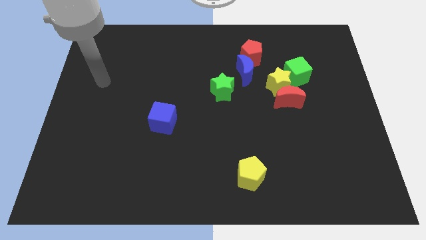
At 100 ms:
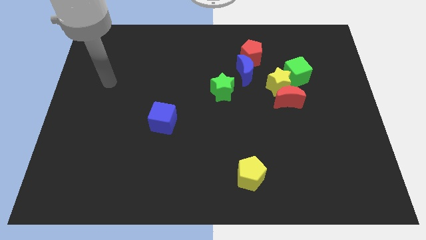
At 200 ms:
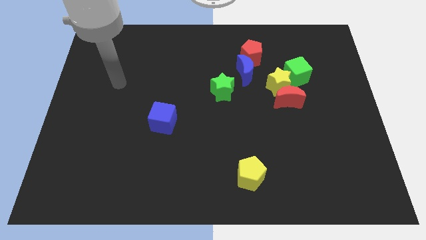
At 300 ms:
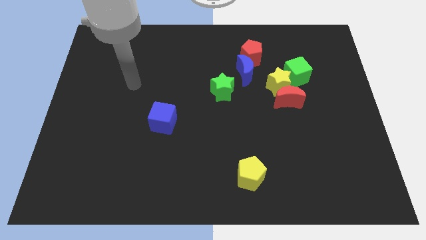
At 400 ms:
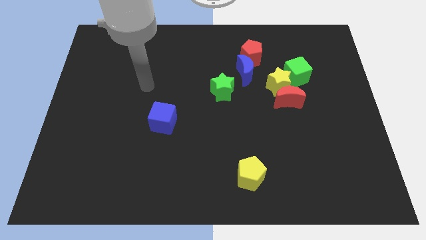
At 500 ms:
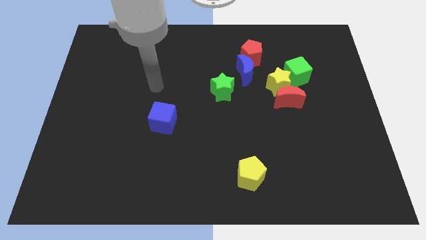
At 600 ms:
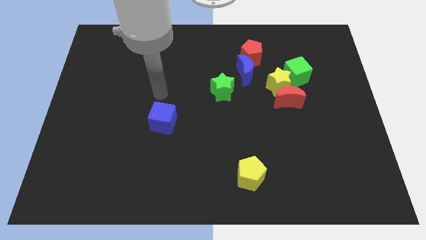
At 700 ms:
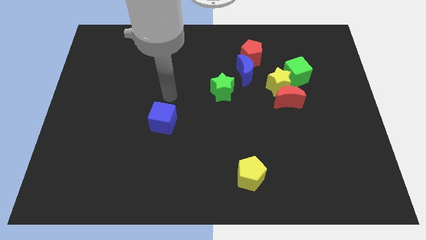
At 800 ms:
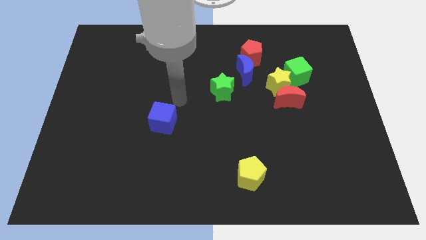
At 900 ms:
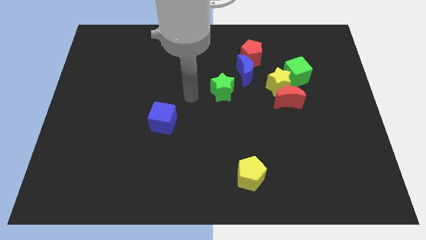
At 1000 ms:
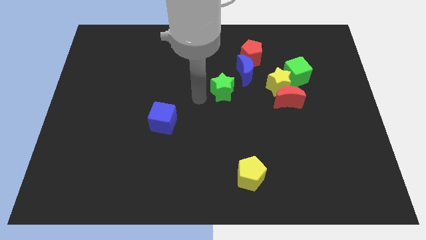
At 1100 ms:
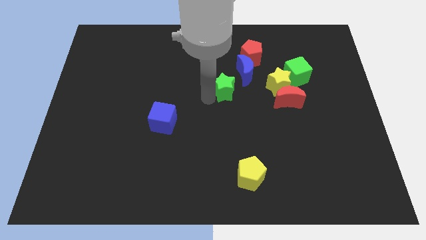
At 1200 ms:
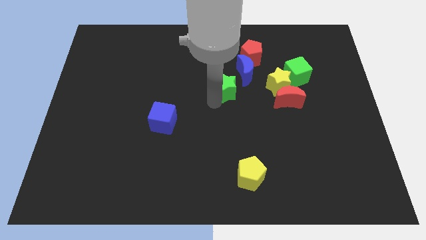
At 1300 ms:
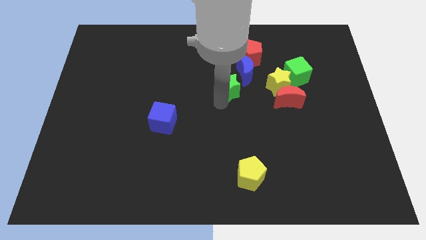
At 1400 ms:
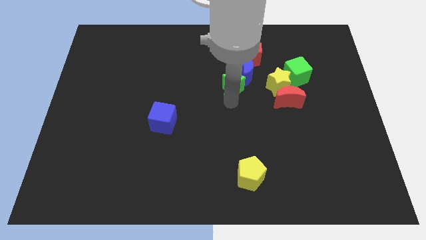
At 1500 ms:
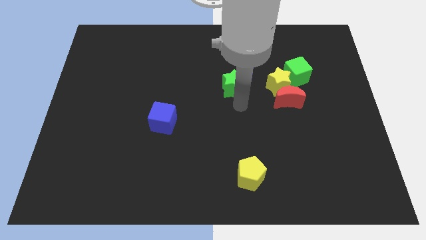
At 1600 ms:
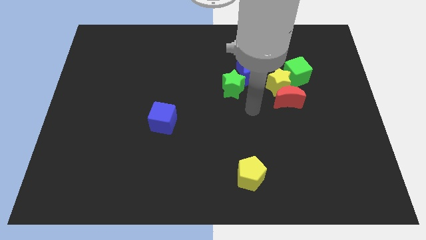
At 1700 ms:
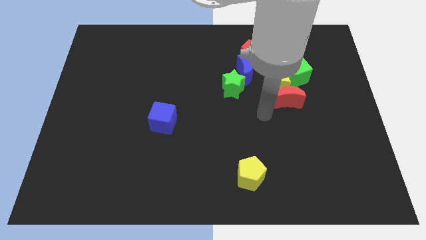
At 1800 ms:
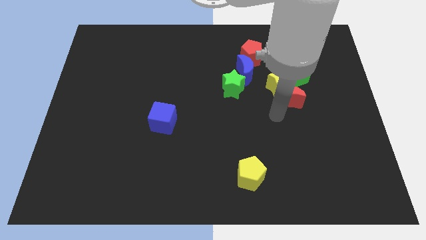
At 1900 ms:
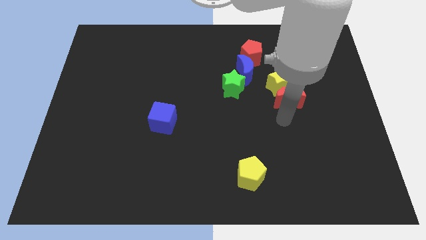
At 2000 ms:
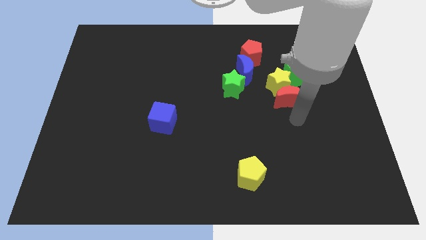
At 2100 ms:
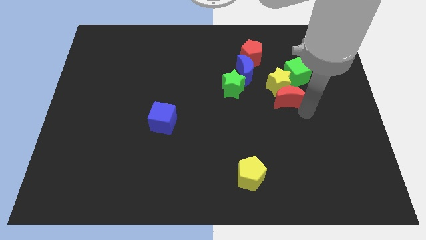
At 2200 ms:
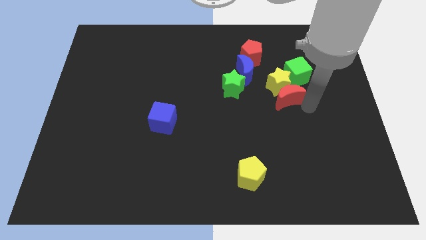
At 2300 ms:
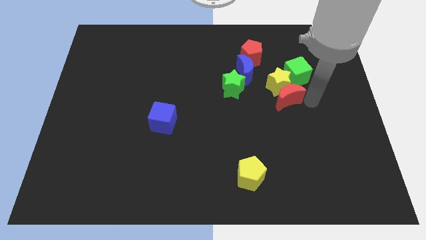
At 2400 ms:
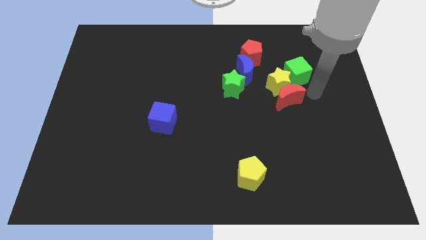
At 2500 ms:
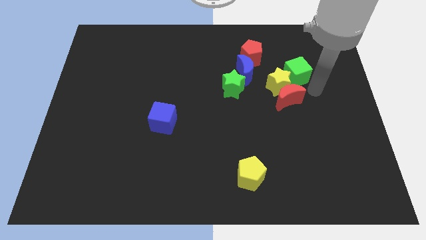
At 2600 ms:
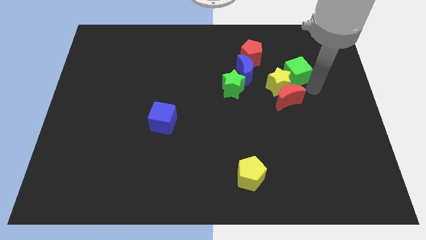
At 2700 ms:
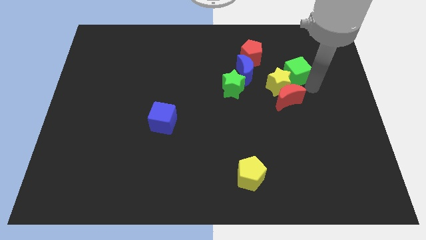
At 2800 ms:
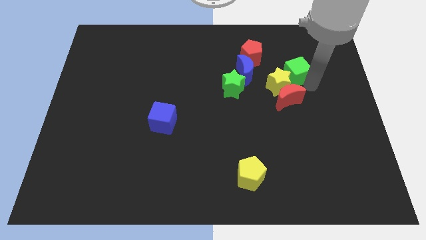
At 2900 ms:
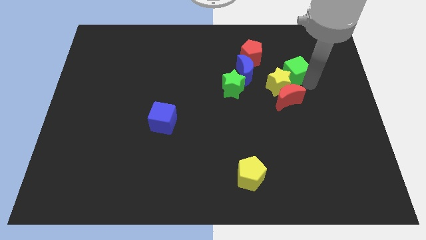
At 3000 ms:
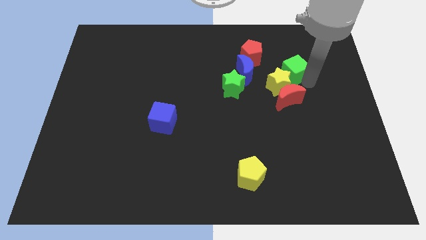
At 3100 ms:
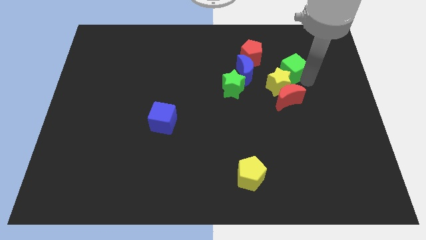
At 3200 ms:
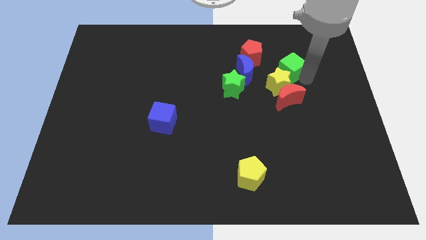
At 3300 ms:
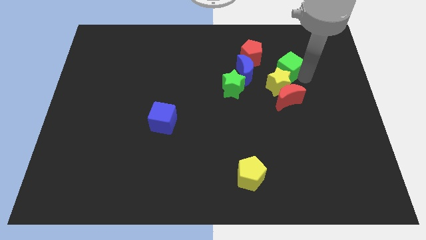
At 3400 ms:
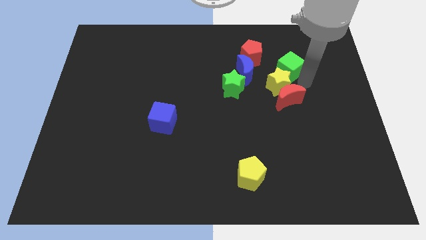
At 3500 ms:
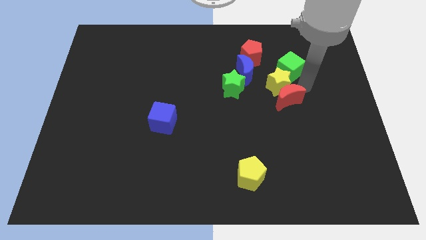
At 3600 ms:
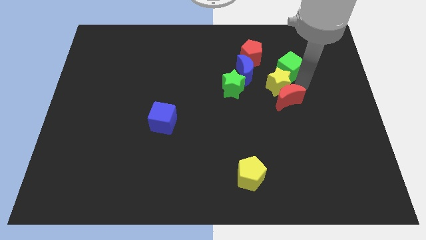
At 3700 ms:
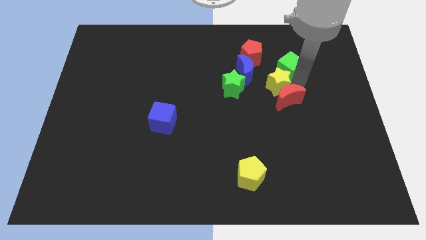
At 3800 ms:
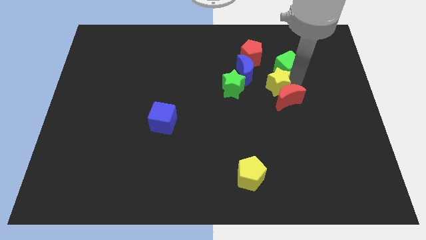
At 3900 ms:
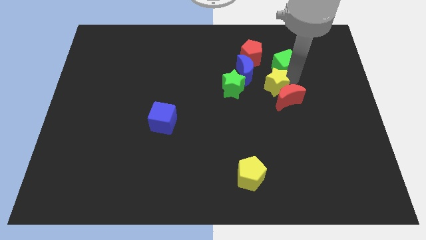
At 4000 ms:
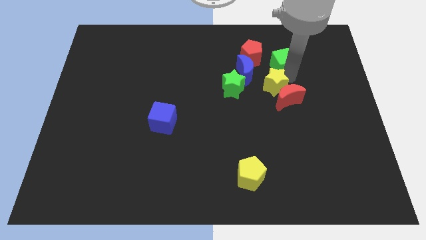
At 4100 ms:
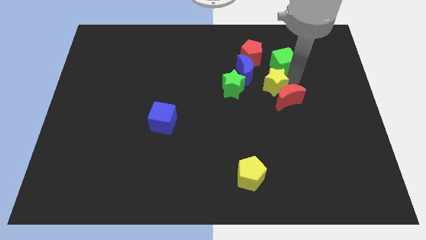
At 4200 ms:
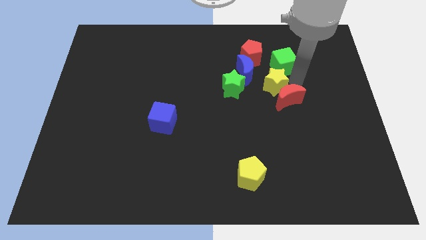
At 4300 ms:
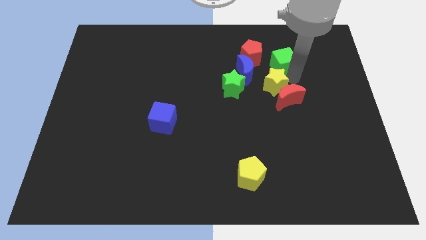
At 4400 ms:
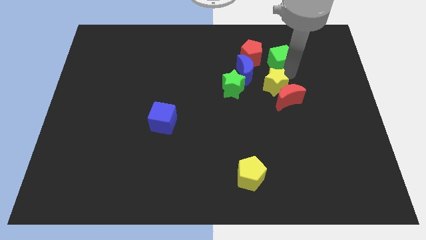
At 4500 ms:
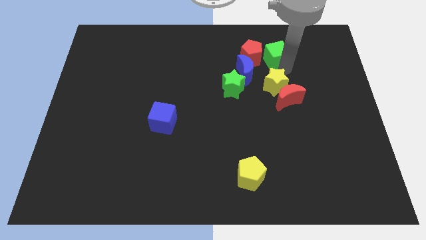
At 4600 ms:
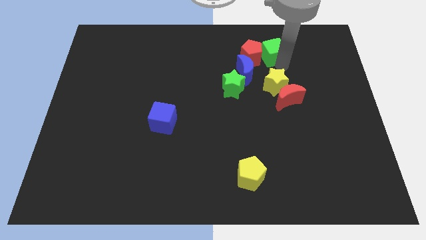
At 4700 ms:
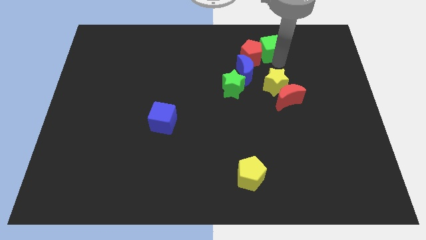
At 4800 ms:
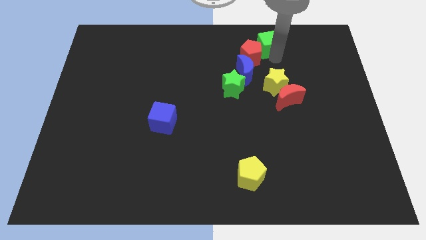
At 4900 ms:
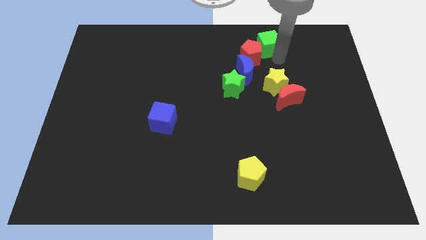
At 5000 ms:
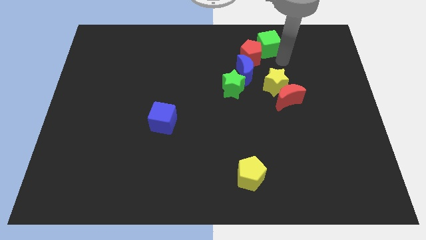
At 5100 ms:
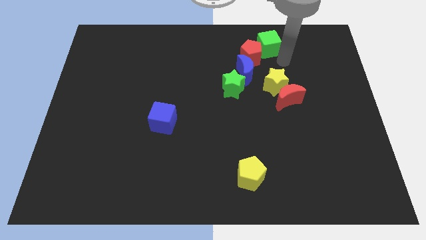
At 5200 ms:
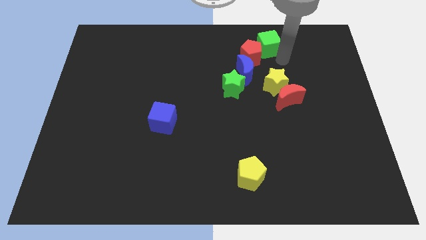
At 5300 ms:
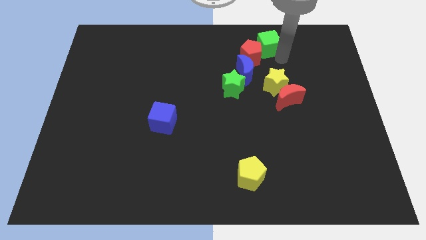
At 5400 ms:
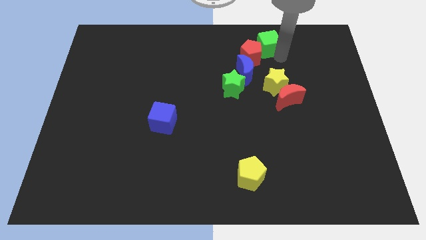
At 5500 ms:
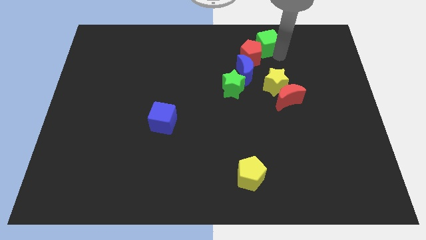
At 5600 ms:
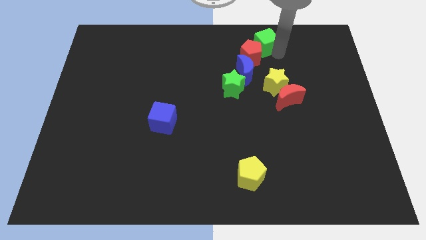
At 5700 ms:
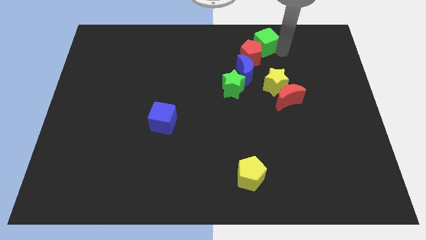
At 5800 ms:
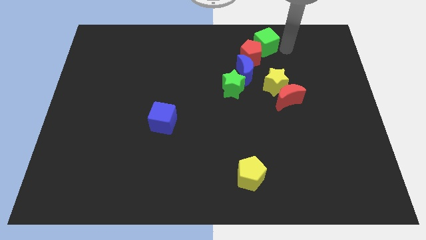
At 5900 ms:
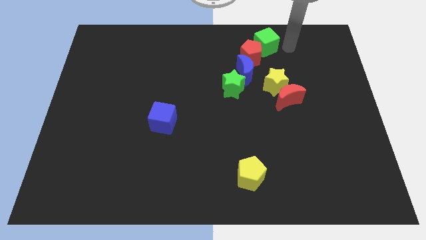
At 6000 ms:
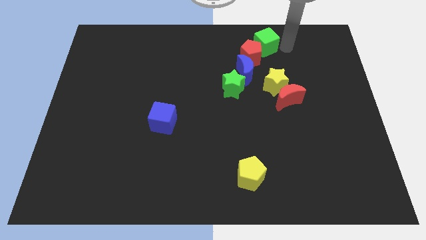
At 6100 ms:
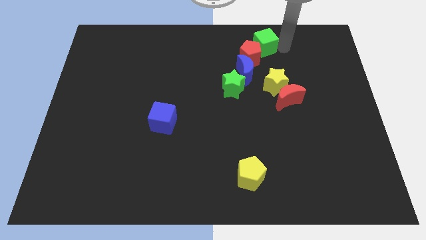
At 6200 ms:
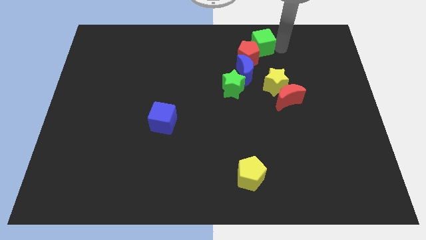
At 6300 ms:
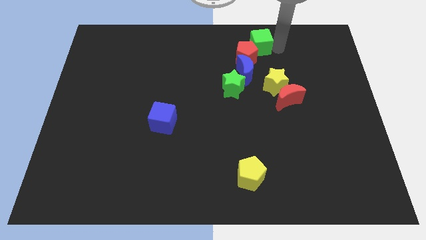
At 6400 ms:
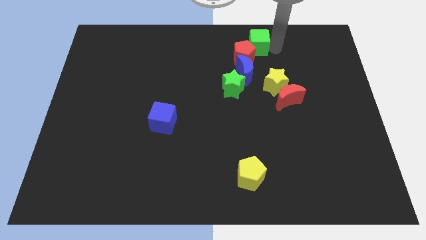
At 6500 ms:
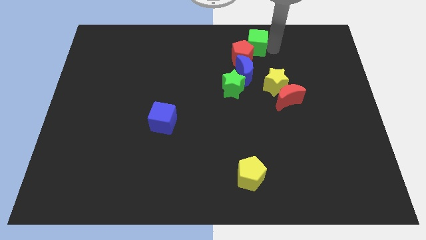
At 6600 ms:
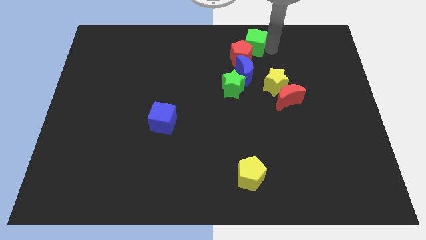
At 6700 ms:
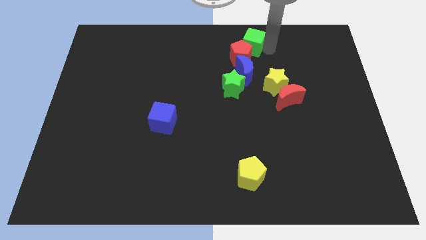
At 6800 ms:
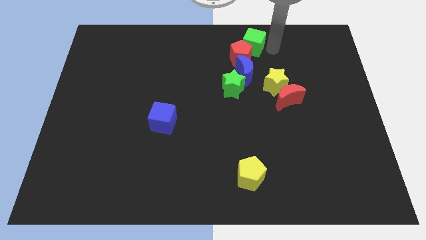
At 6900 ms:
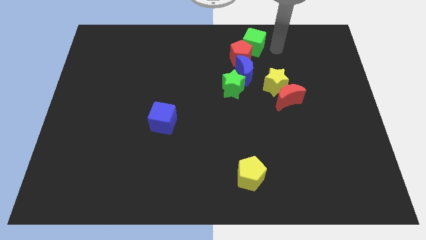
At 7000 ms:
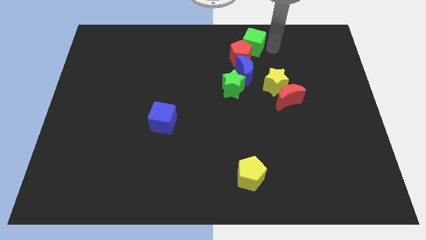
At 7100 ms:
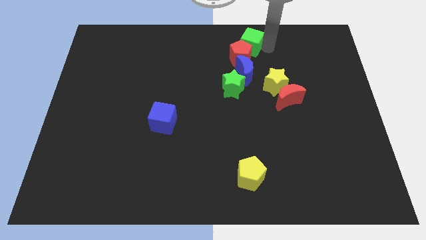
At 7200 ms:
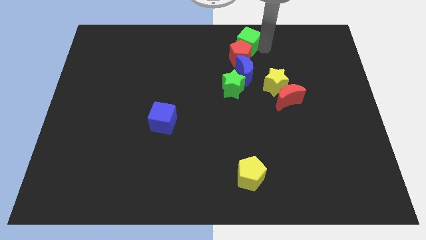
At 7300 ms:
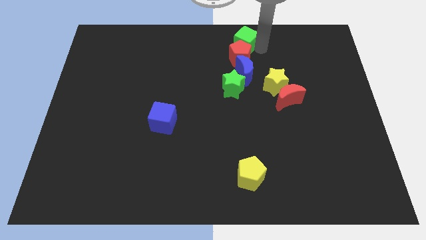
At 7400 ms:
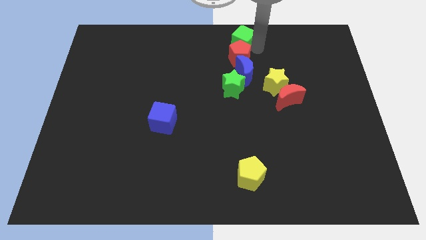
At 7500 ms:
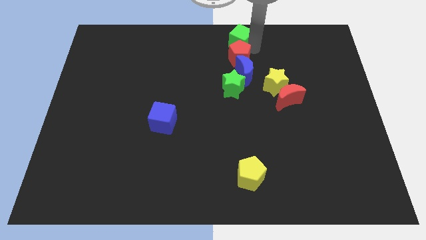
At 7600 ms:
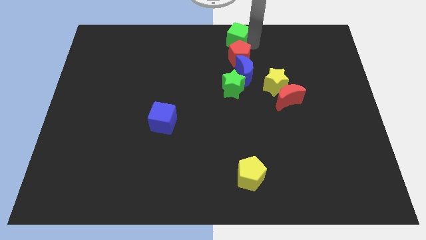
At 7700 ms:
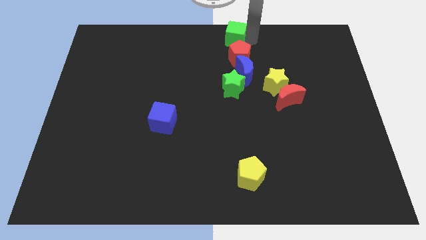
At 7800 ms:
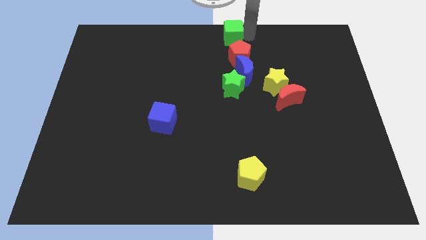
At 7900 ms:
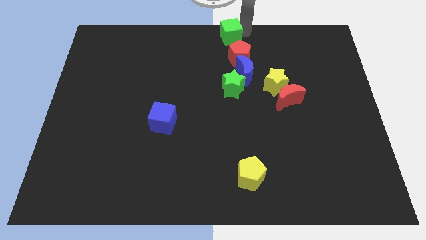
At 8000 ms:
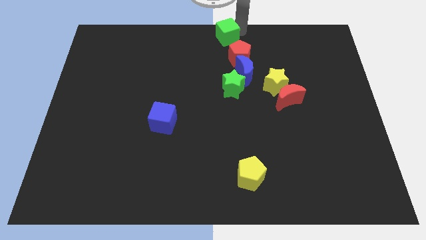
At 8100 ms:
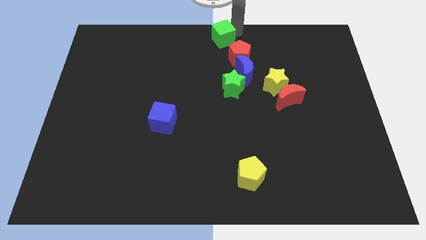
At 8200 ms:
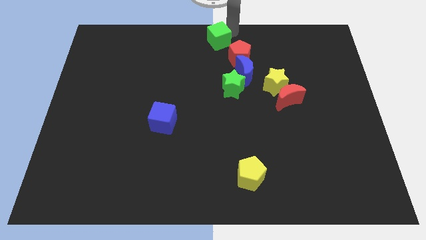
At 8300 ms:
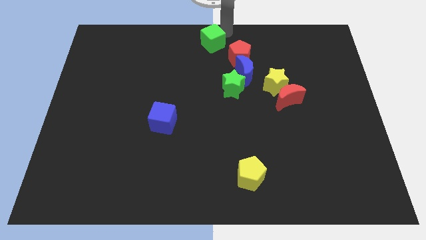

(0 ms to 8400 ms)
slightly move the green cube to the left
